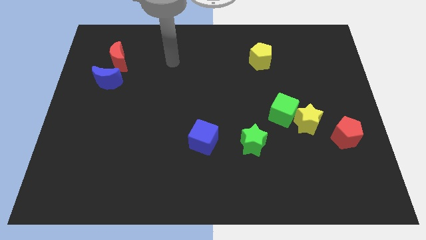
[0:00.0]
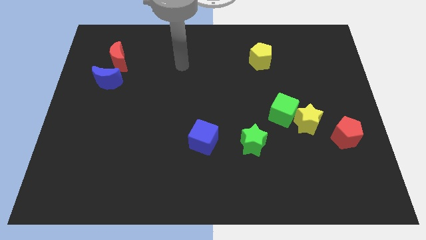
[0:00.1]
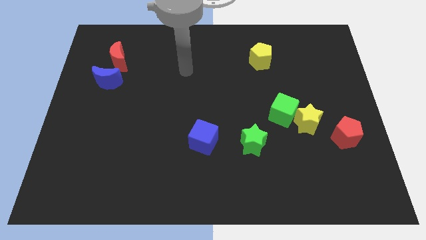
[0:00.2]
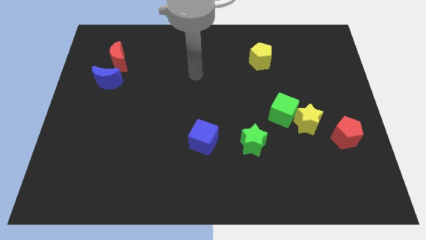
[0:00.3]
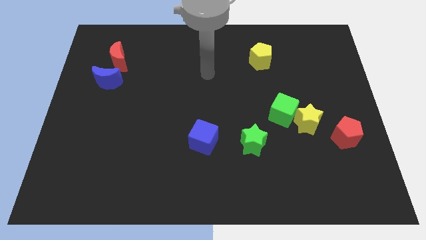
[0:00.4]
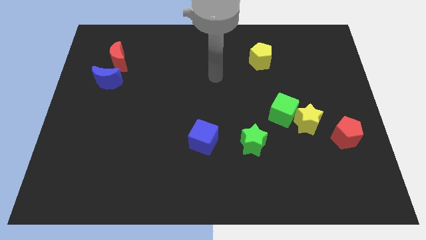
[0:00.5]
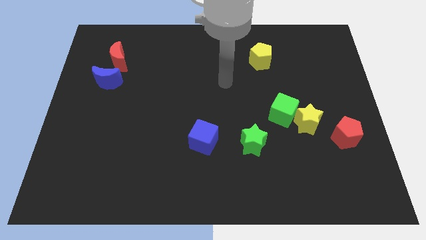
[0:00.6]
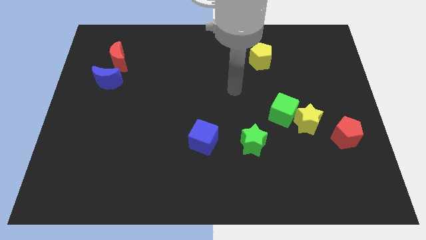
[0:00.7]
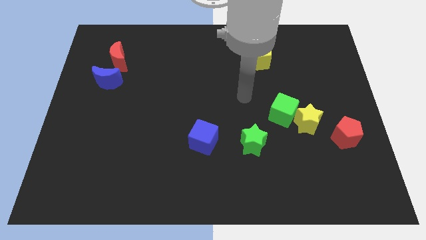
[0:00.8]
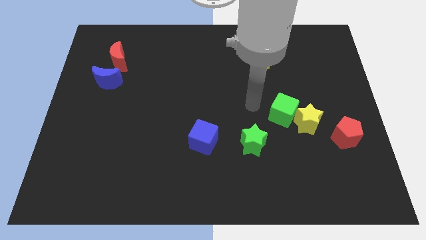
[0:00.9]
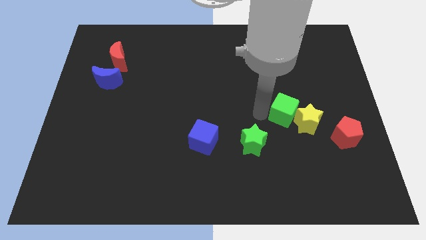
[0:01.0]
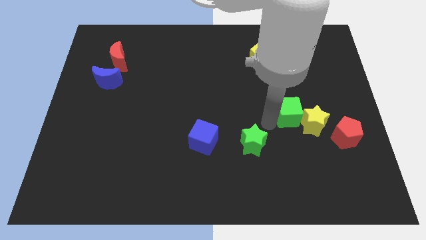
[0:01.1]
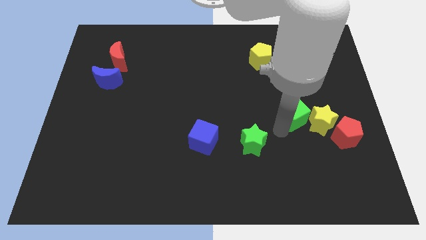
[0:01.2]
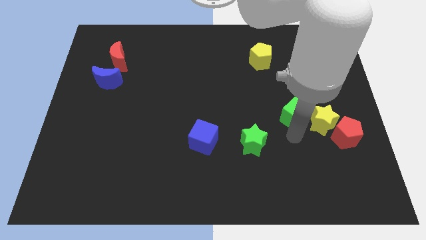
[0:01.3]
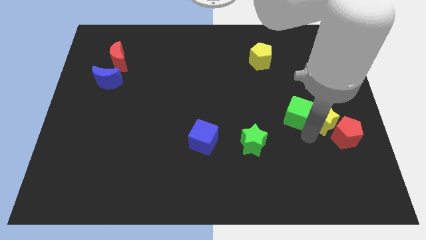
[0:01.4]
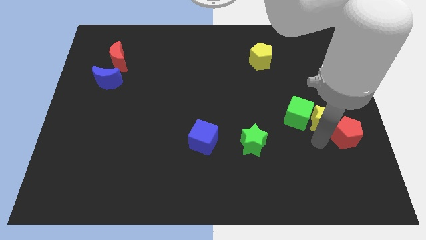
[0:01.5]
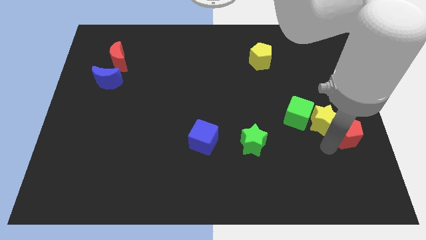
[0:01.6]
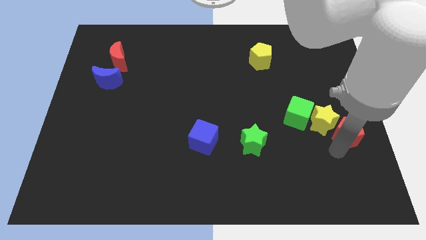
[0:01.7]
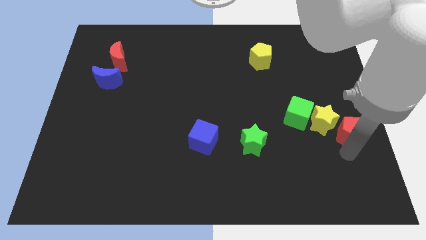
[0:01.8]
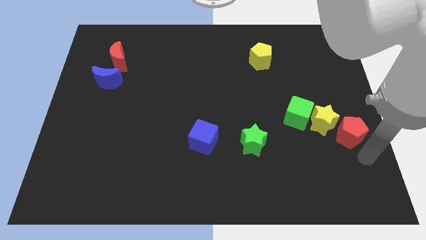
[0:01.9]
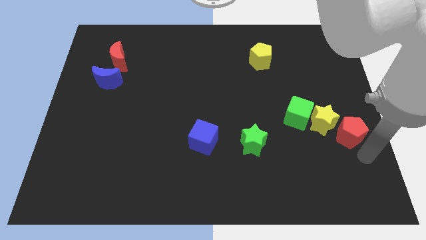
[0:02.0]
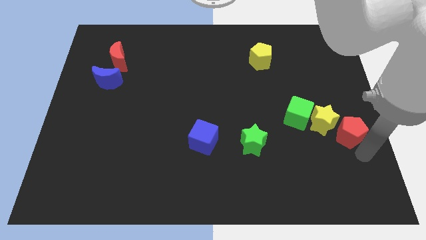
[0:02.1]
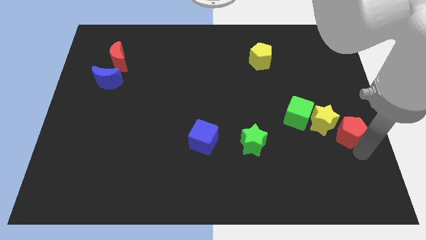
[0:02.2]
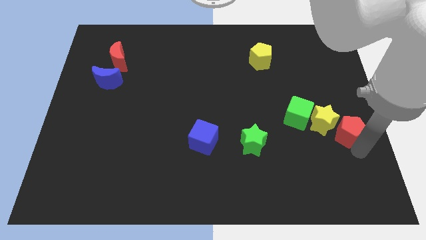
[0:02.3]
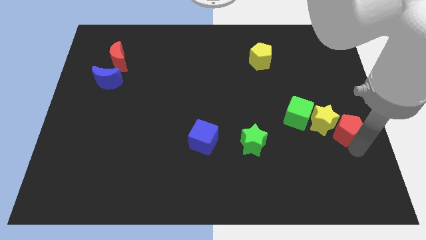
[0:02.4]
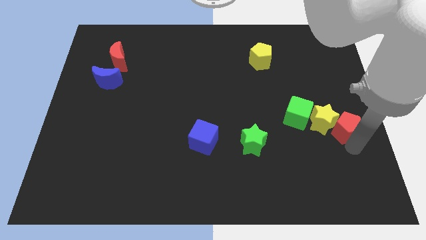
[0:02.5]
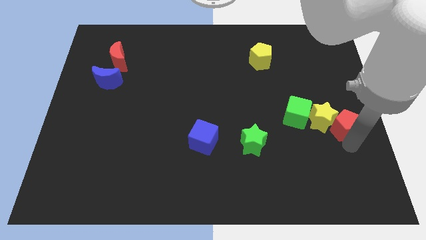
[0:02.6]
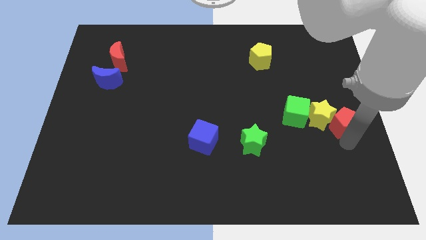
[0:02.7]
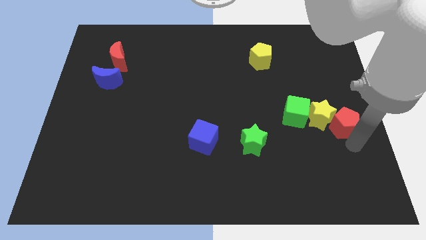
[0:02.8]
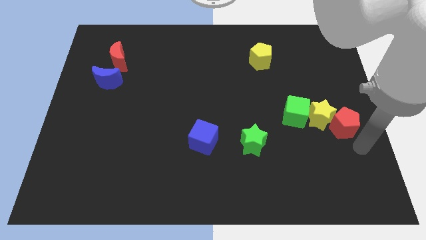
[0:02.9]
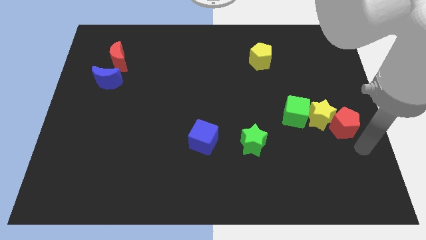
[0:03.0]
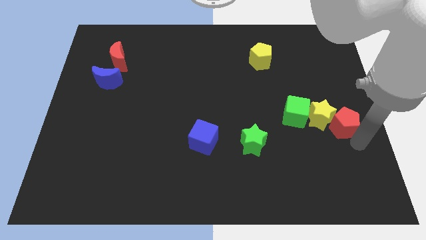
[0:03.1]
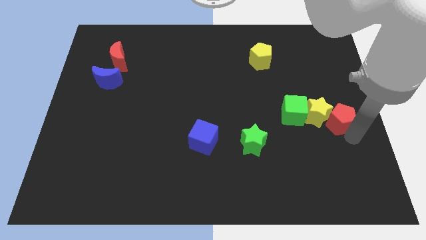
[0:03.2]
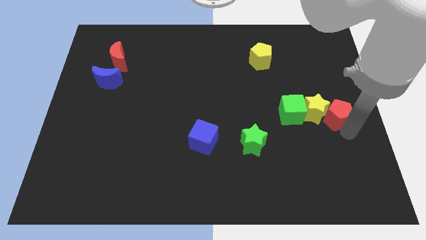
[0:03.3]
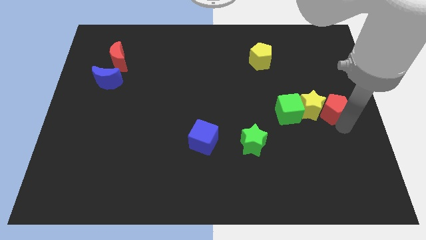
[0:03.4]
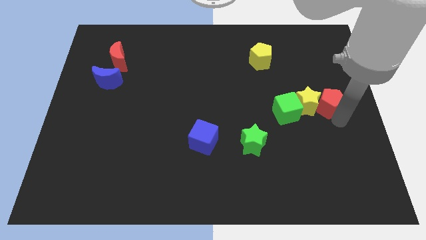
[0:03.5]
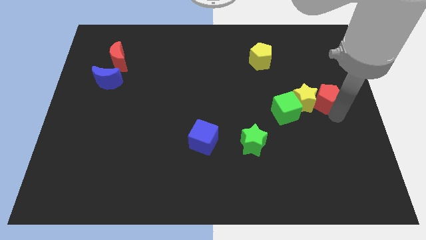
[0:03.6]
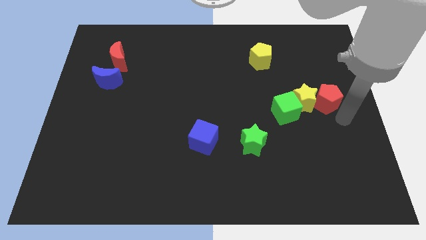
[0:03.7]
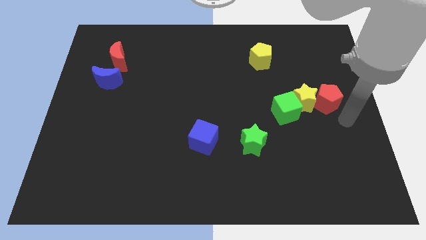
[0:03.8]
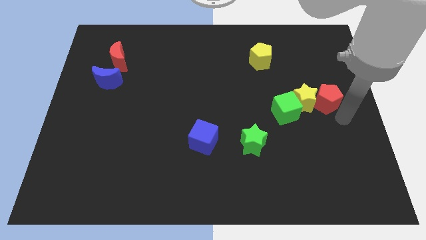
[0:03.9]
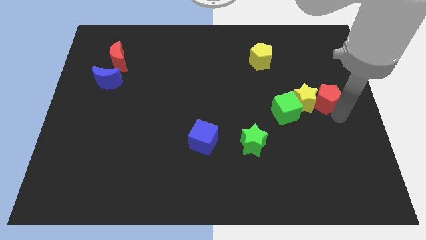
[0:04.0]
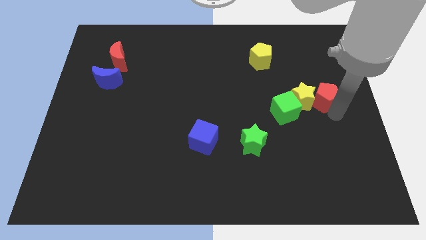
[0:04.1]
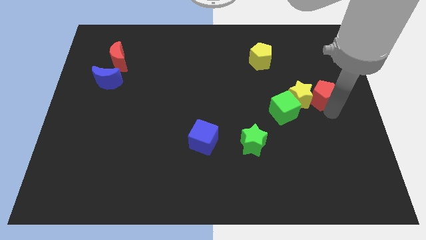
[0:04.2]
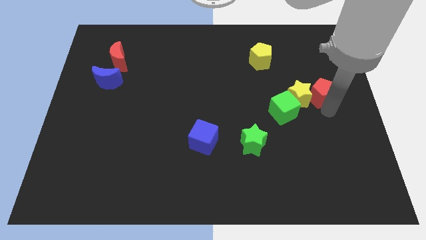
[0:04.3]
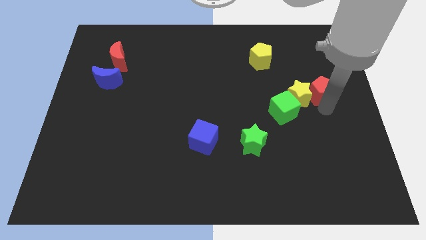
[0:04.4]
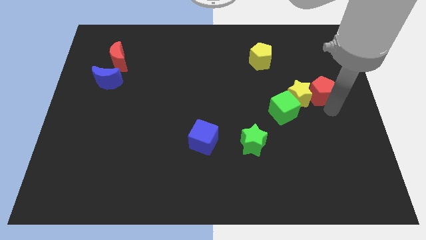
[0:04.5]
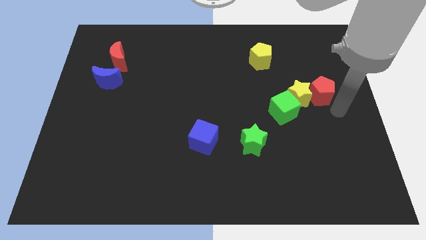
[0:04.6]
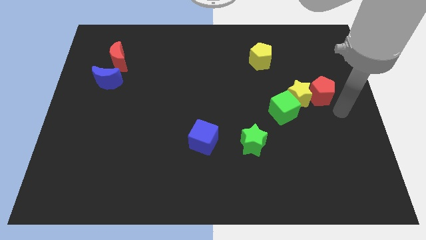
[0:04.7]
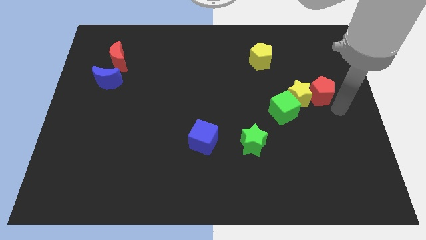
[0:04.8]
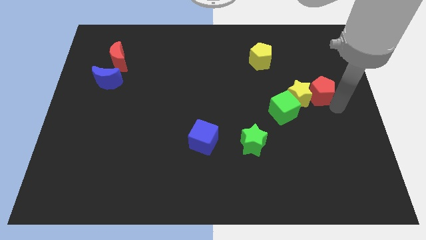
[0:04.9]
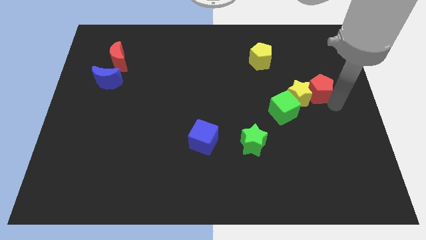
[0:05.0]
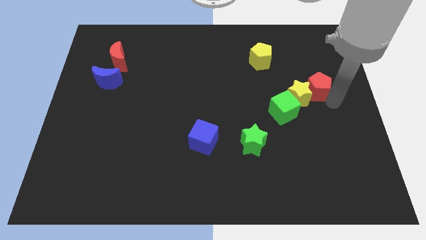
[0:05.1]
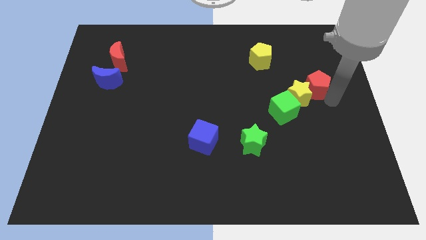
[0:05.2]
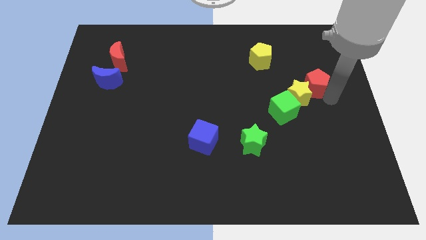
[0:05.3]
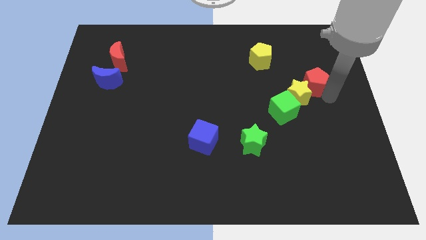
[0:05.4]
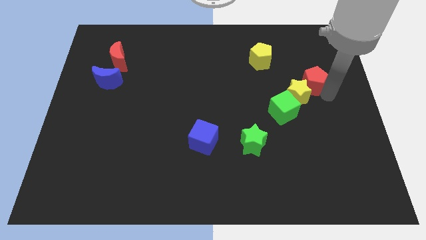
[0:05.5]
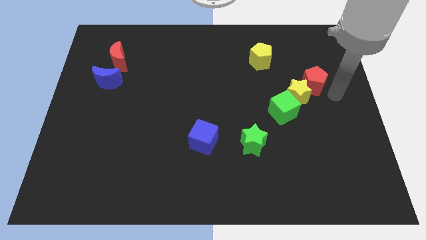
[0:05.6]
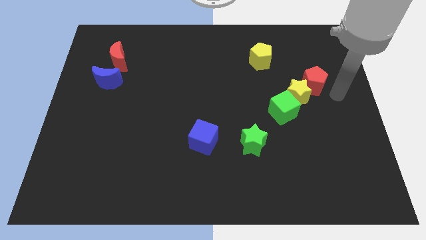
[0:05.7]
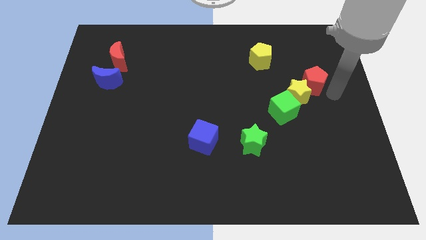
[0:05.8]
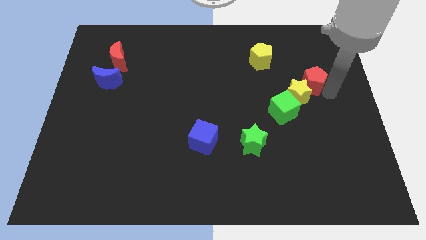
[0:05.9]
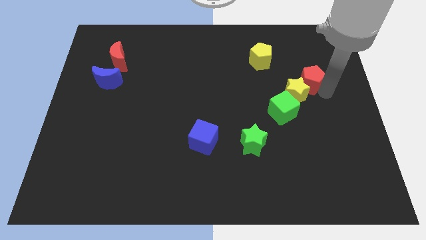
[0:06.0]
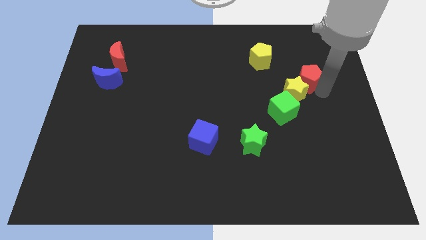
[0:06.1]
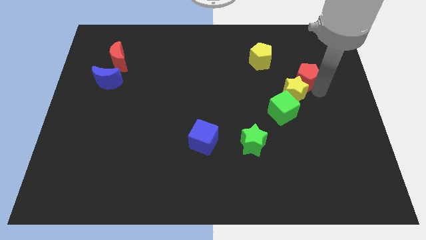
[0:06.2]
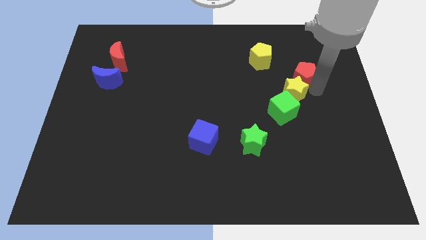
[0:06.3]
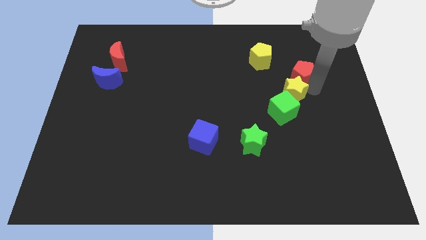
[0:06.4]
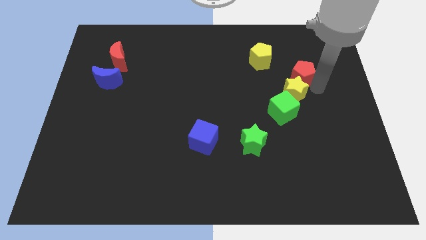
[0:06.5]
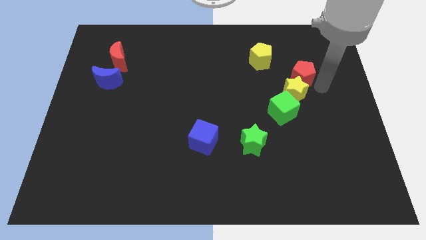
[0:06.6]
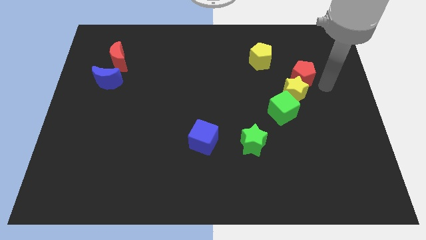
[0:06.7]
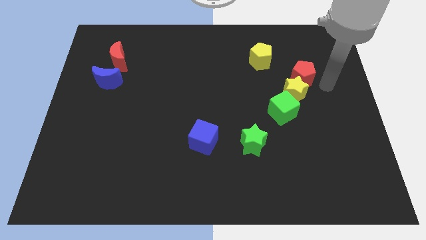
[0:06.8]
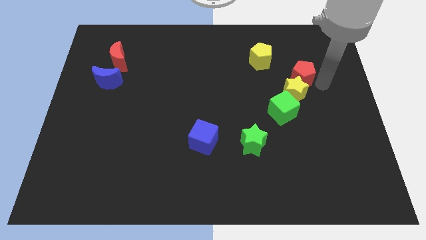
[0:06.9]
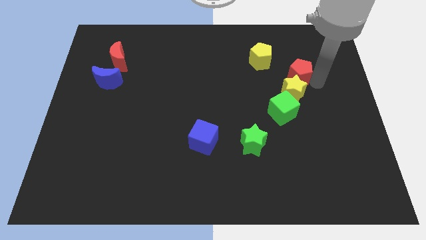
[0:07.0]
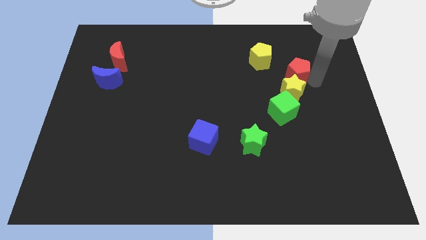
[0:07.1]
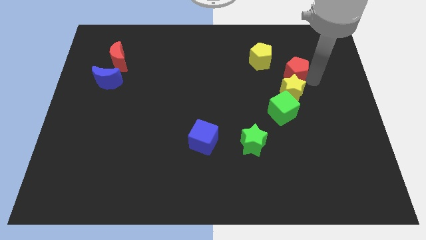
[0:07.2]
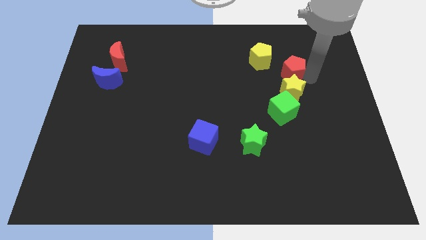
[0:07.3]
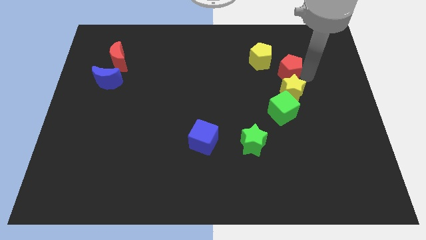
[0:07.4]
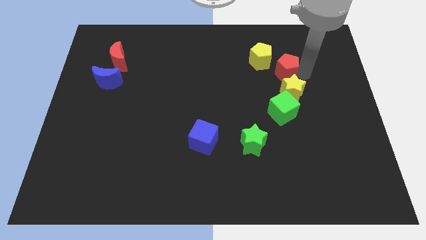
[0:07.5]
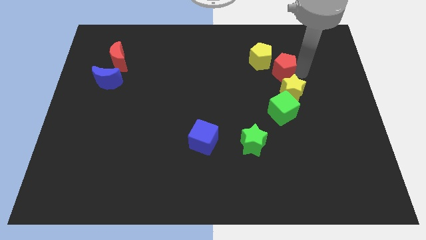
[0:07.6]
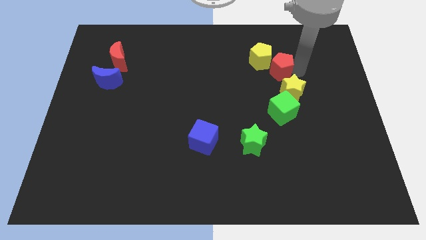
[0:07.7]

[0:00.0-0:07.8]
push the red pentagon next to the yellow pentagon
